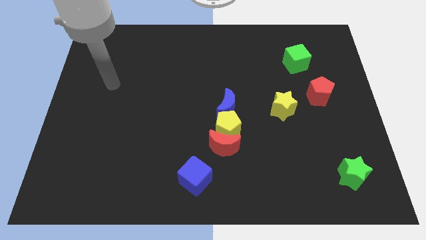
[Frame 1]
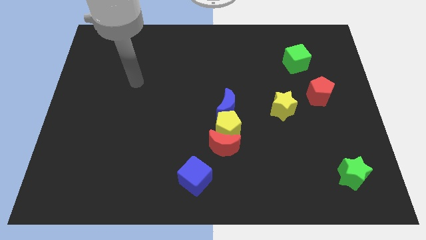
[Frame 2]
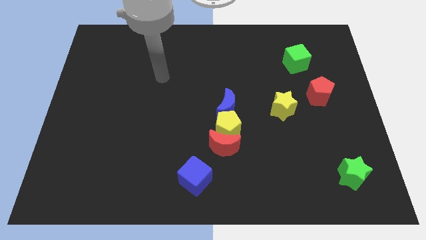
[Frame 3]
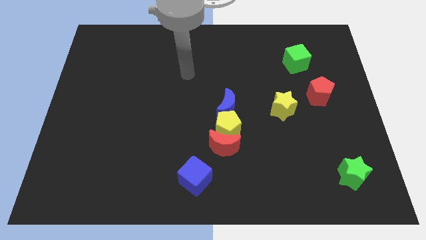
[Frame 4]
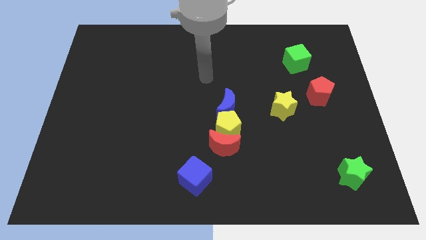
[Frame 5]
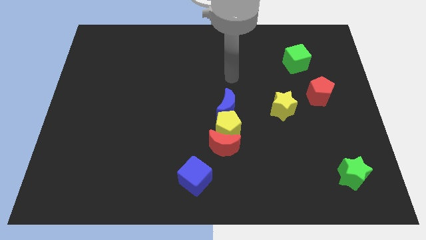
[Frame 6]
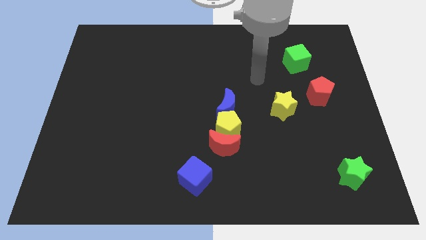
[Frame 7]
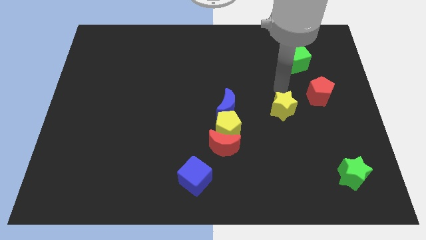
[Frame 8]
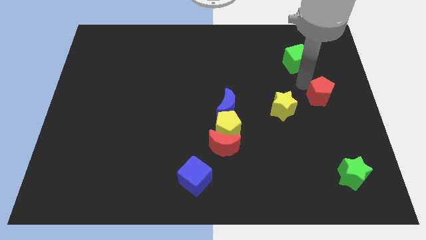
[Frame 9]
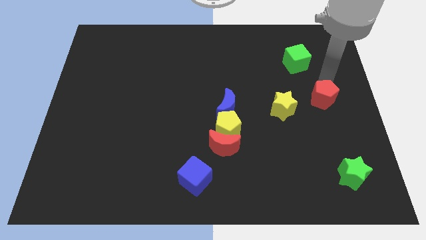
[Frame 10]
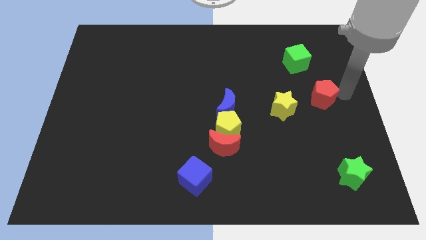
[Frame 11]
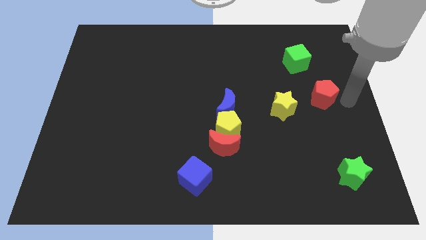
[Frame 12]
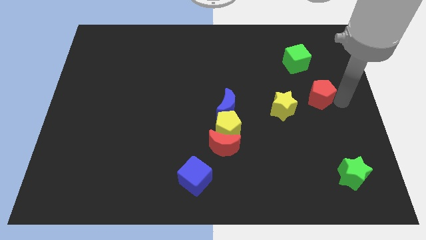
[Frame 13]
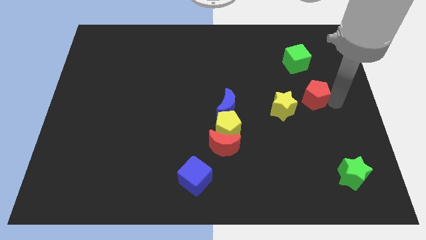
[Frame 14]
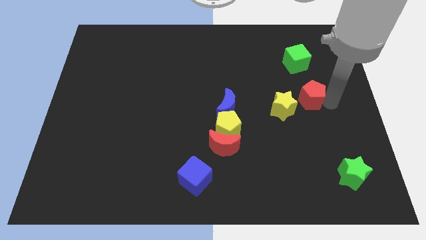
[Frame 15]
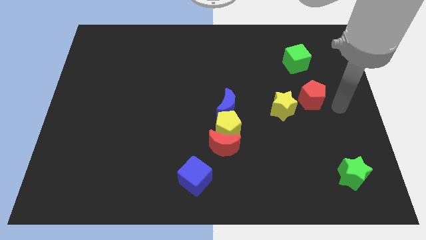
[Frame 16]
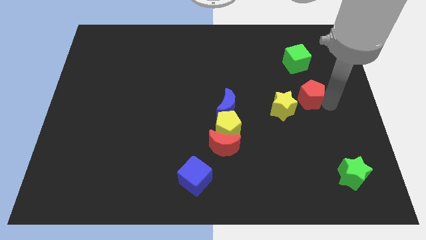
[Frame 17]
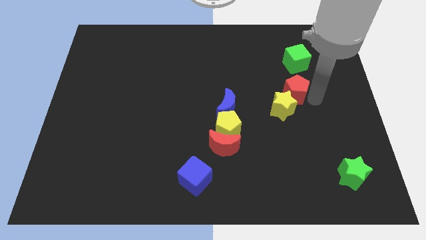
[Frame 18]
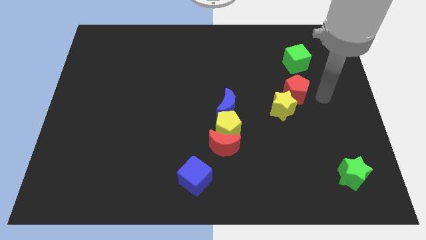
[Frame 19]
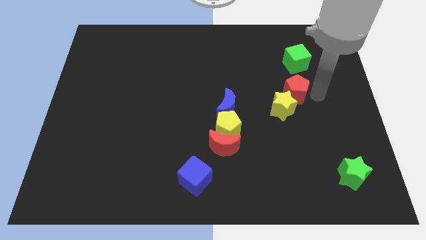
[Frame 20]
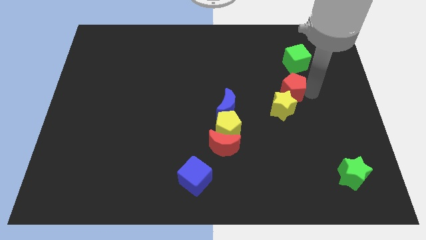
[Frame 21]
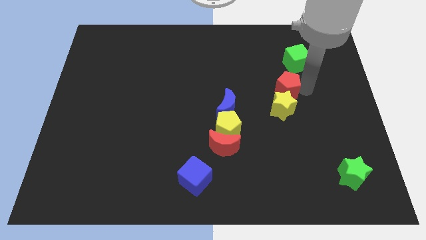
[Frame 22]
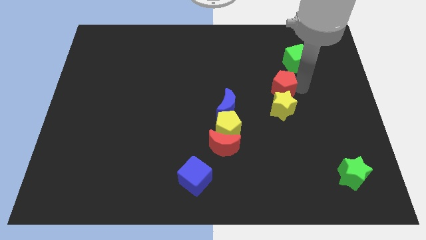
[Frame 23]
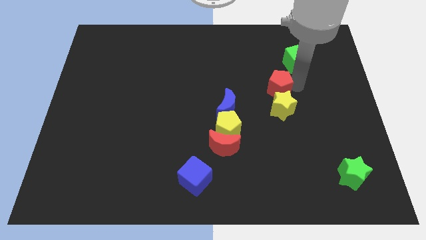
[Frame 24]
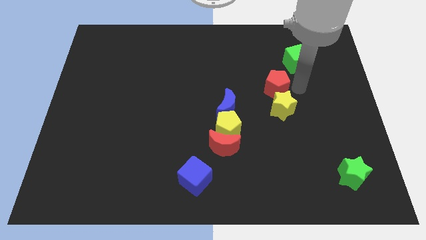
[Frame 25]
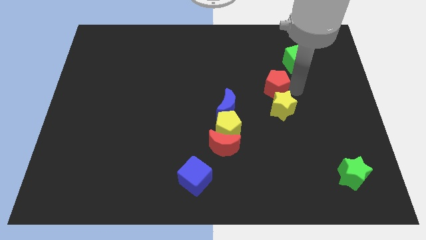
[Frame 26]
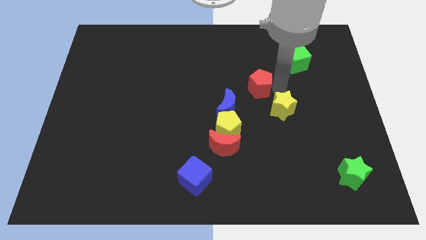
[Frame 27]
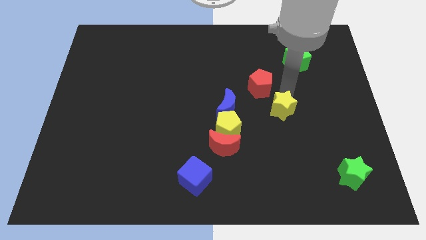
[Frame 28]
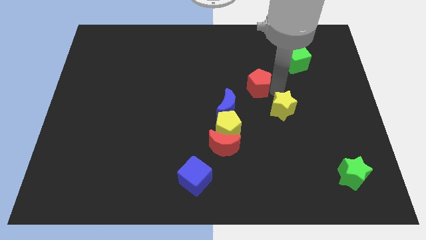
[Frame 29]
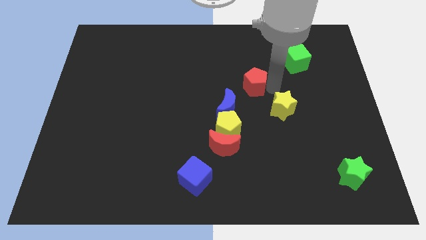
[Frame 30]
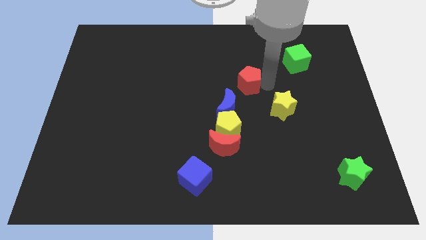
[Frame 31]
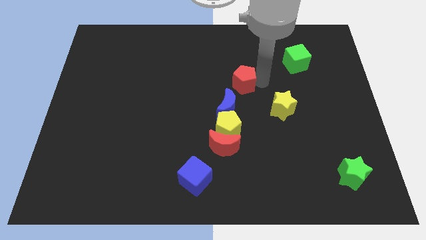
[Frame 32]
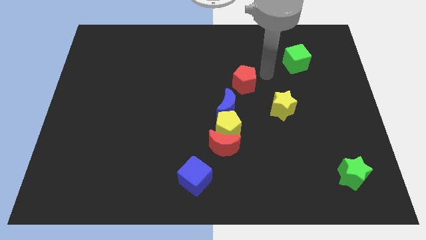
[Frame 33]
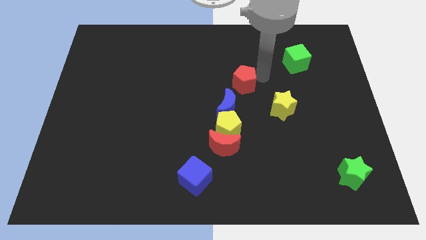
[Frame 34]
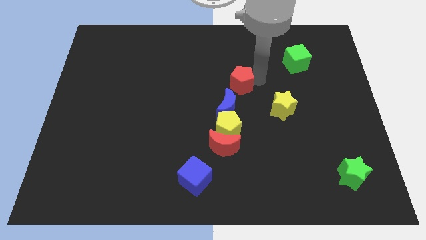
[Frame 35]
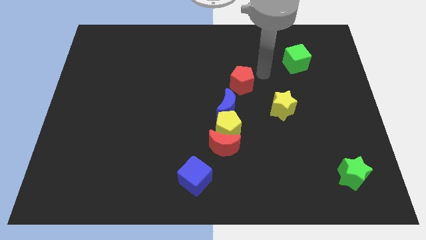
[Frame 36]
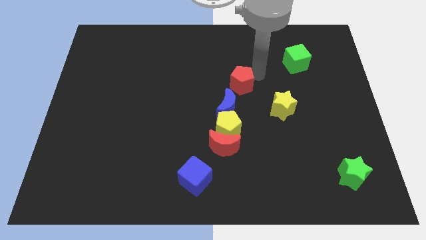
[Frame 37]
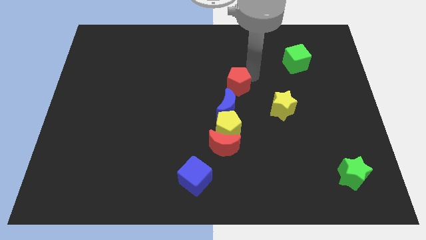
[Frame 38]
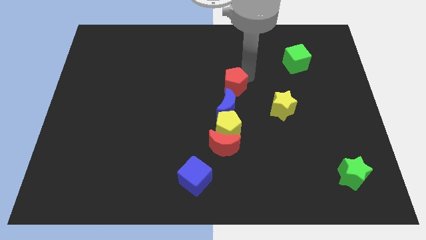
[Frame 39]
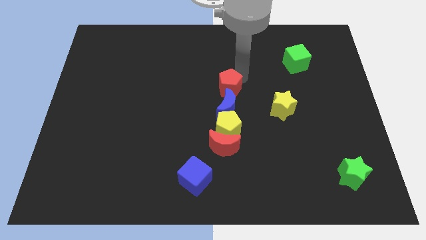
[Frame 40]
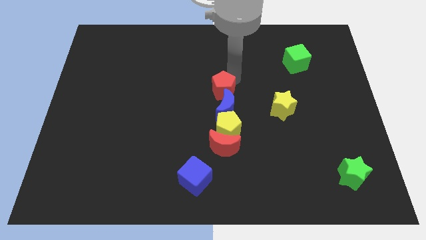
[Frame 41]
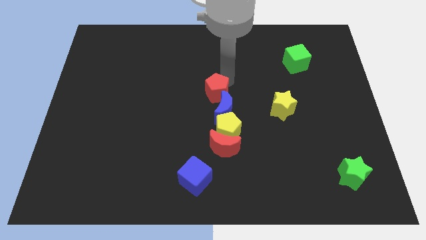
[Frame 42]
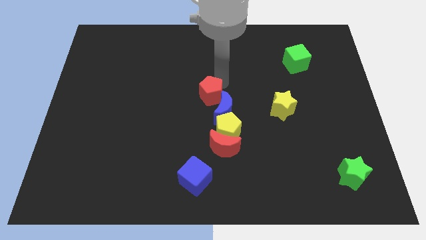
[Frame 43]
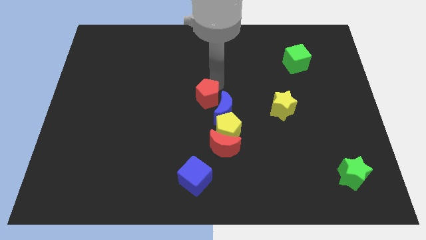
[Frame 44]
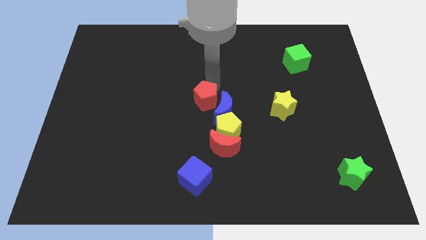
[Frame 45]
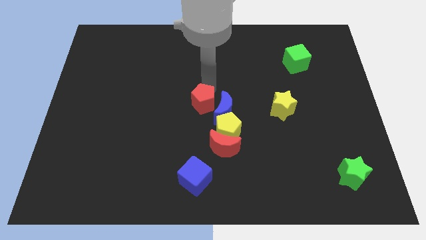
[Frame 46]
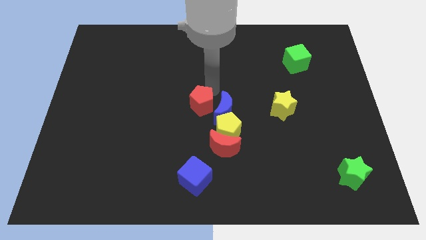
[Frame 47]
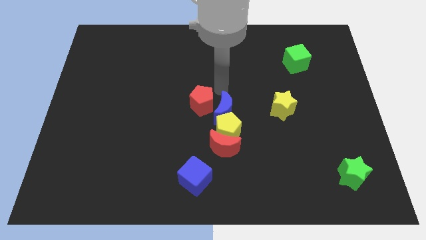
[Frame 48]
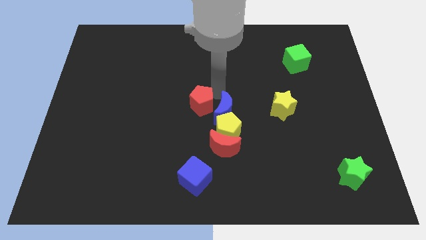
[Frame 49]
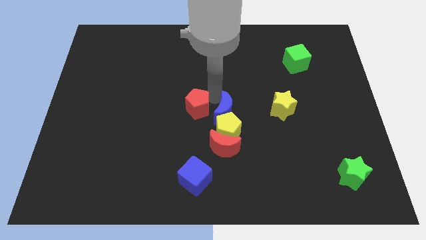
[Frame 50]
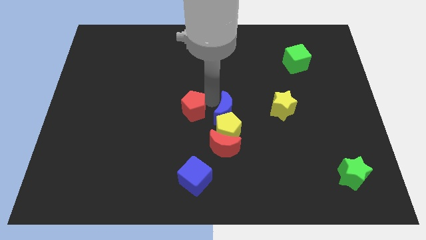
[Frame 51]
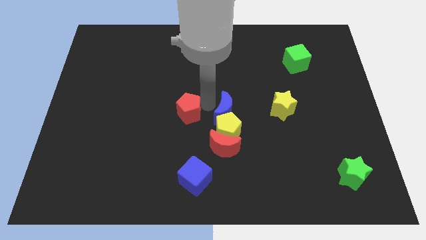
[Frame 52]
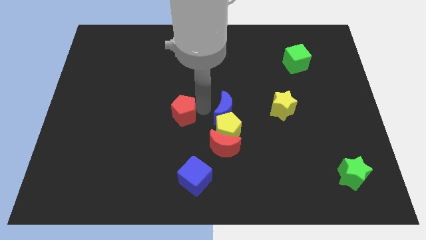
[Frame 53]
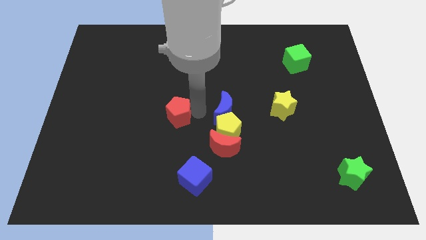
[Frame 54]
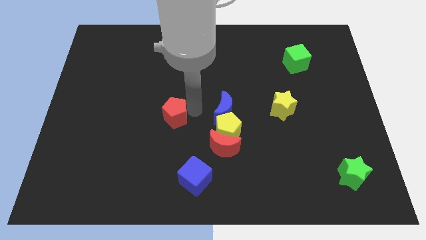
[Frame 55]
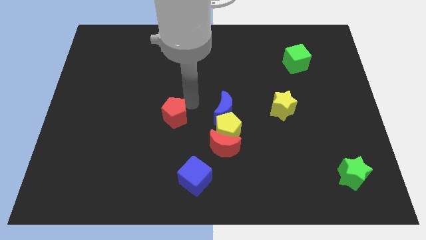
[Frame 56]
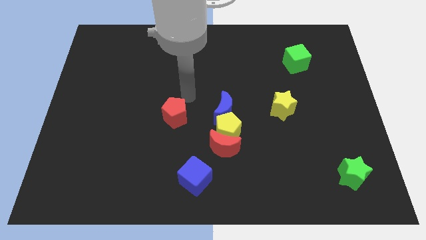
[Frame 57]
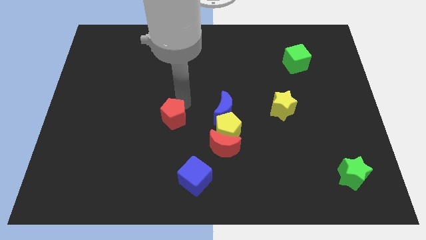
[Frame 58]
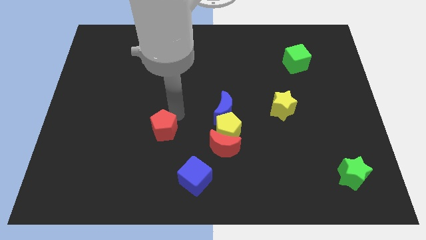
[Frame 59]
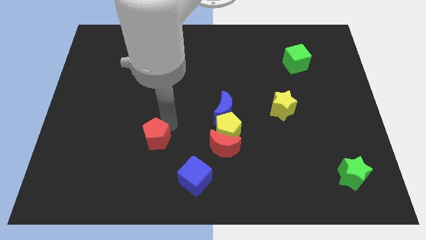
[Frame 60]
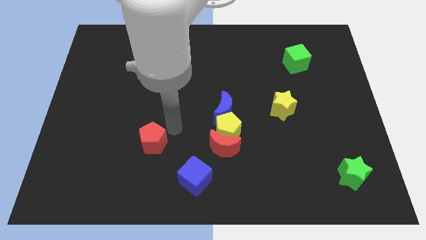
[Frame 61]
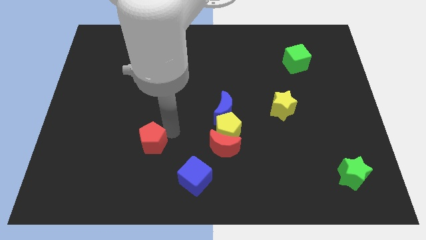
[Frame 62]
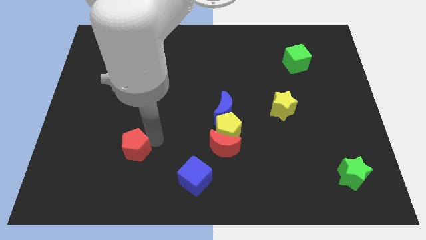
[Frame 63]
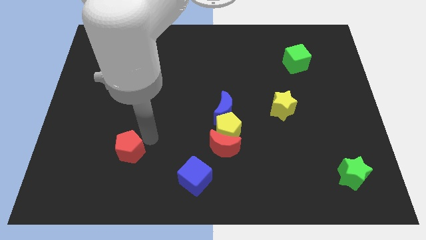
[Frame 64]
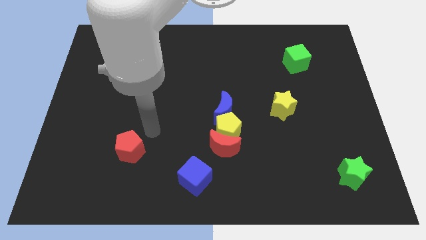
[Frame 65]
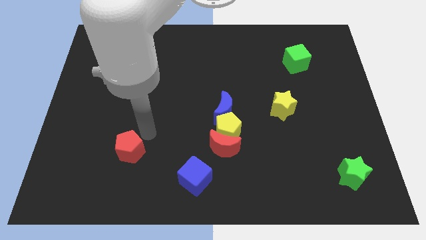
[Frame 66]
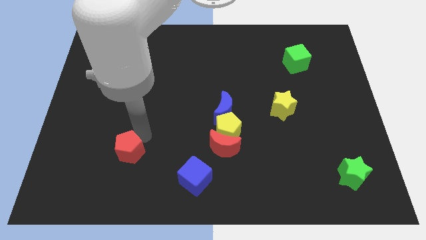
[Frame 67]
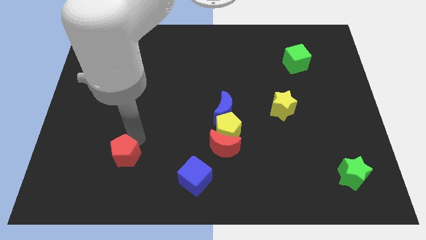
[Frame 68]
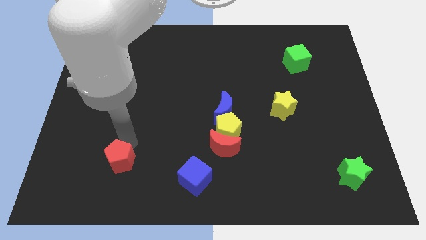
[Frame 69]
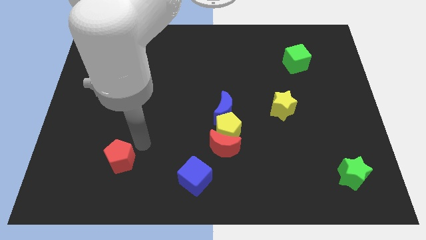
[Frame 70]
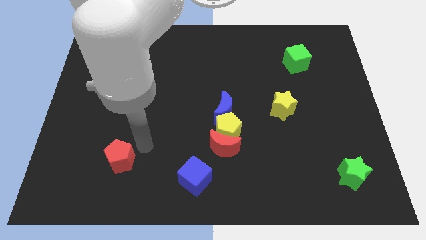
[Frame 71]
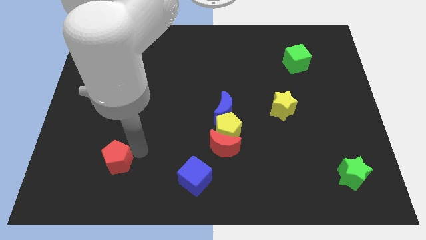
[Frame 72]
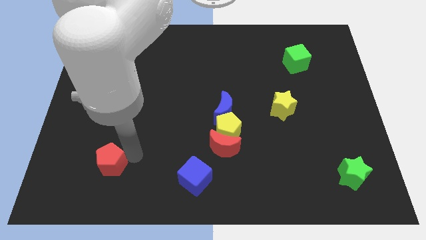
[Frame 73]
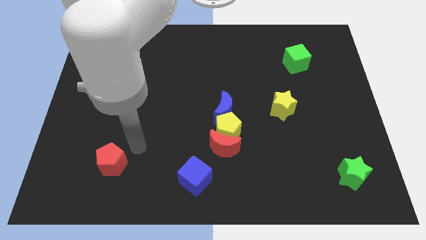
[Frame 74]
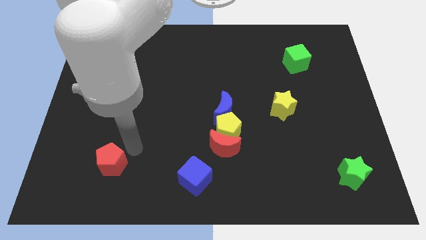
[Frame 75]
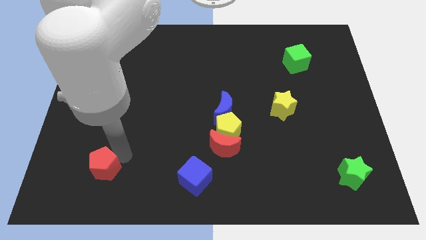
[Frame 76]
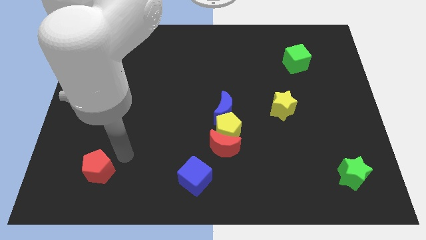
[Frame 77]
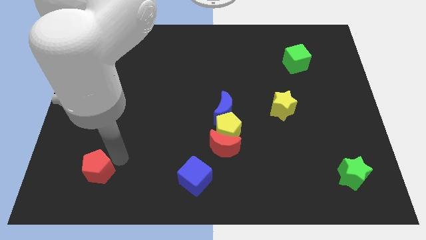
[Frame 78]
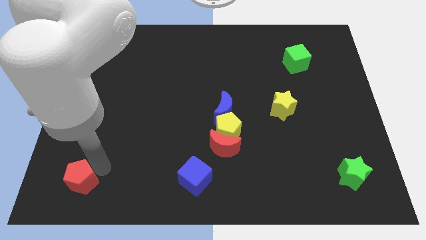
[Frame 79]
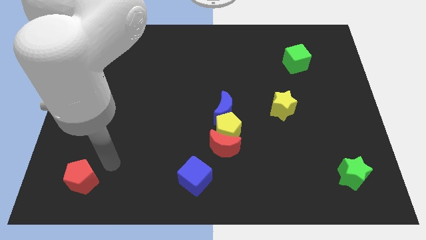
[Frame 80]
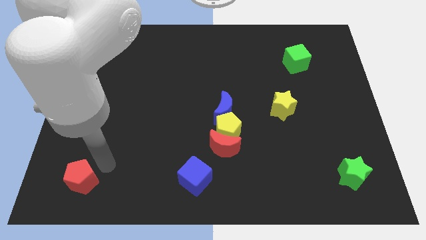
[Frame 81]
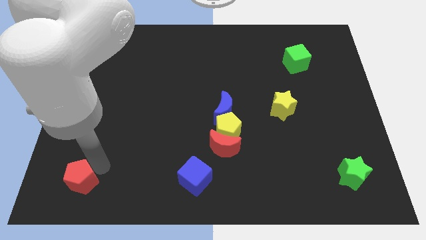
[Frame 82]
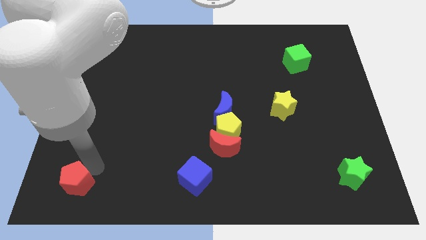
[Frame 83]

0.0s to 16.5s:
push the red pentagon to the bottom left of the board
